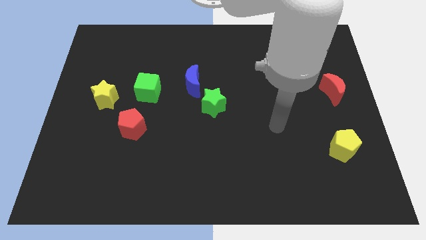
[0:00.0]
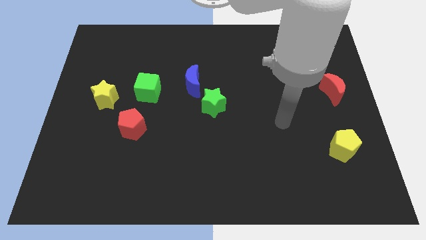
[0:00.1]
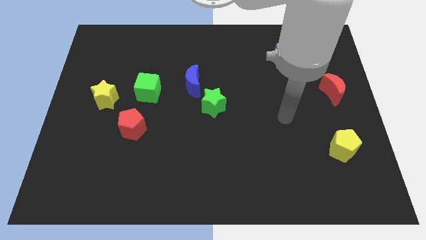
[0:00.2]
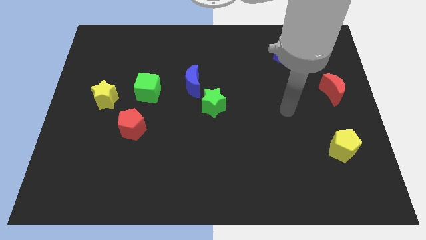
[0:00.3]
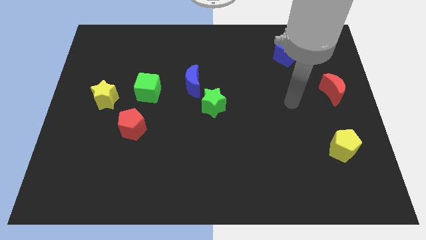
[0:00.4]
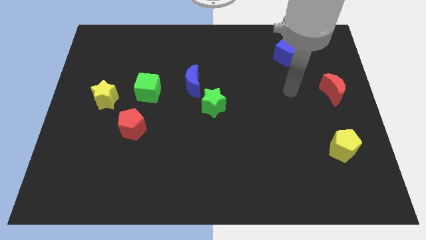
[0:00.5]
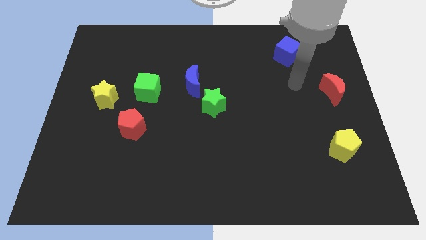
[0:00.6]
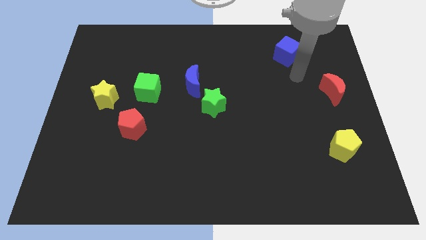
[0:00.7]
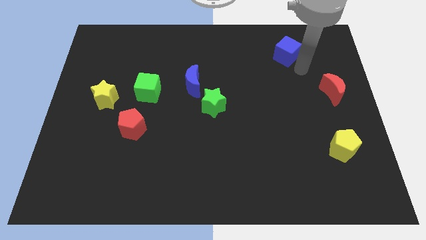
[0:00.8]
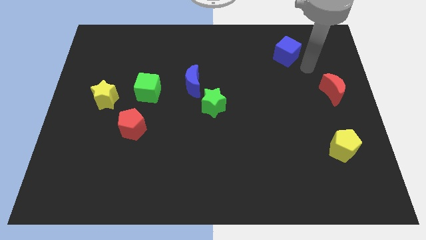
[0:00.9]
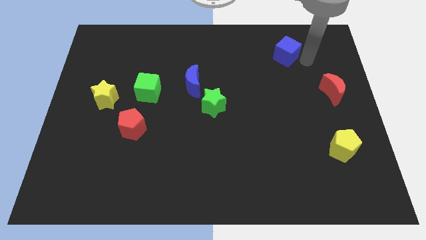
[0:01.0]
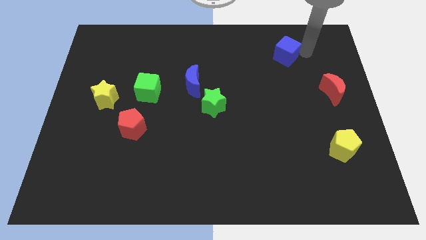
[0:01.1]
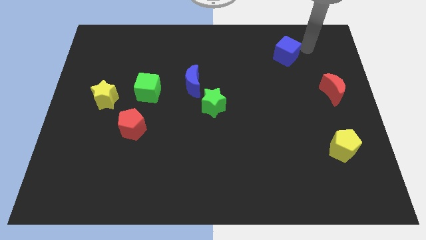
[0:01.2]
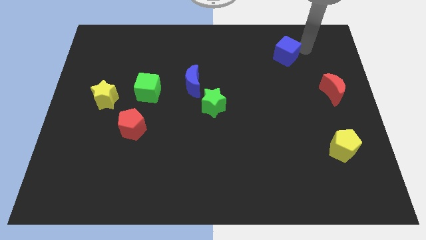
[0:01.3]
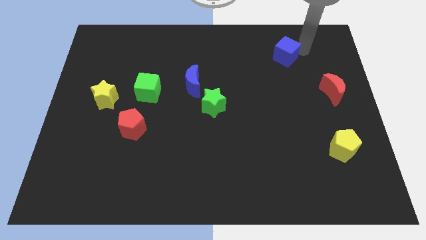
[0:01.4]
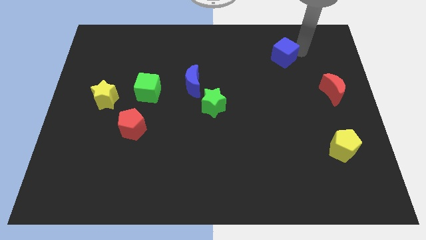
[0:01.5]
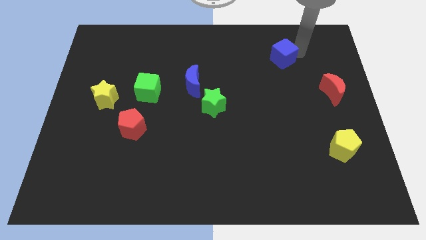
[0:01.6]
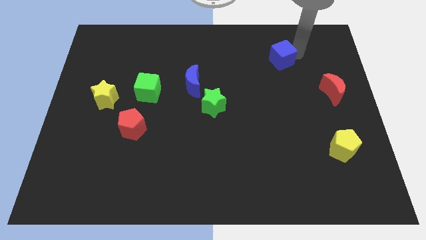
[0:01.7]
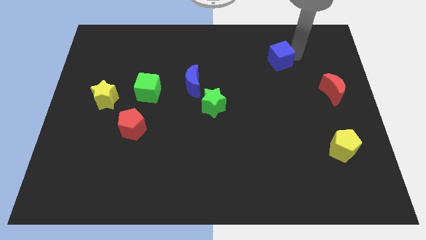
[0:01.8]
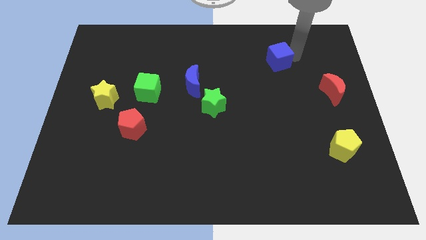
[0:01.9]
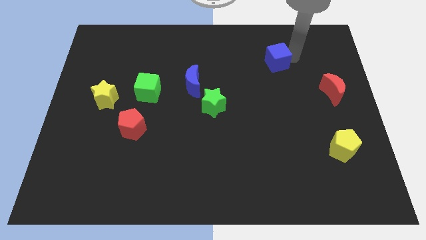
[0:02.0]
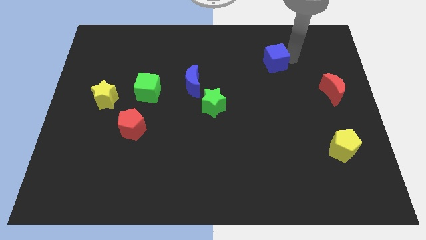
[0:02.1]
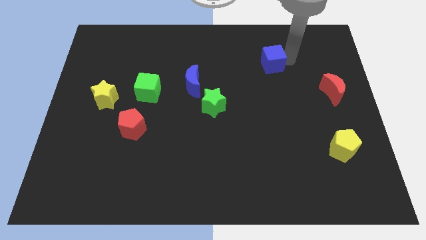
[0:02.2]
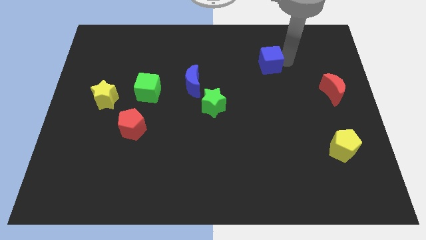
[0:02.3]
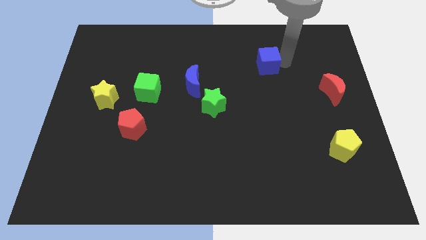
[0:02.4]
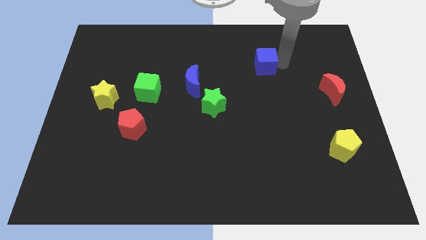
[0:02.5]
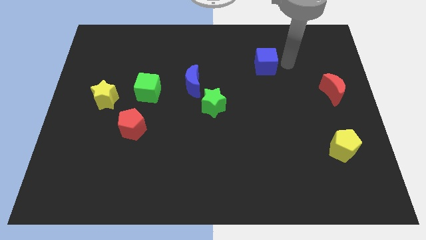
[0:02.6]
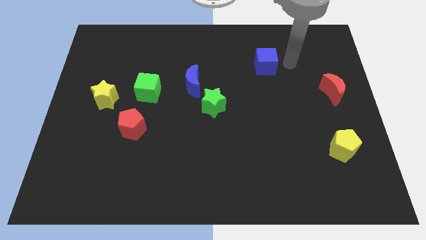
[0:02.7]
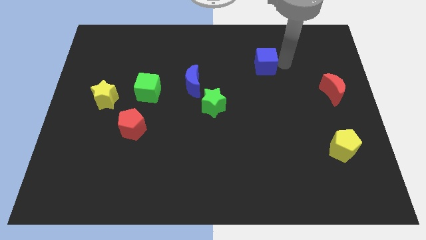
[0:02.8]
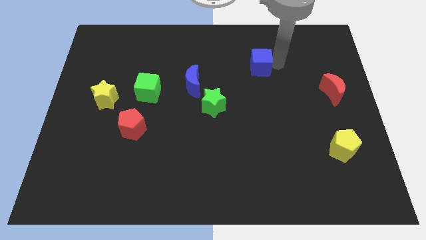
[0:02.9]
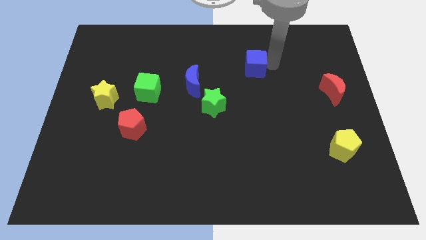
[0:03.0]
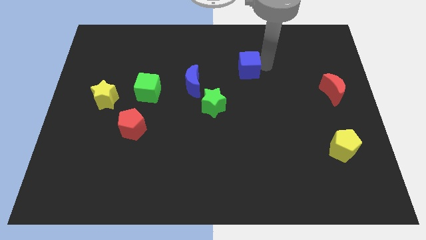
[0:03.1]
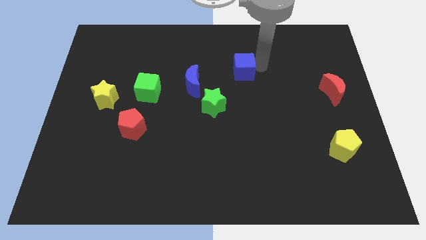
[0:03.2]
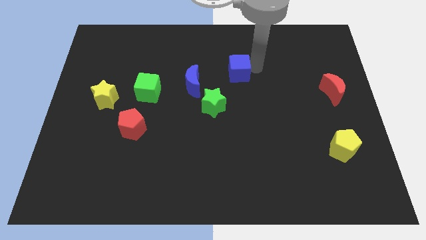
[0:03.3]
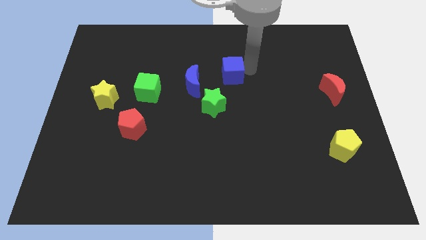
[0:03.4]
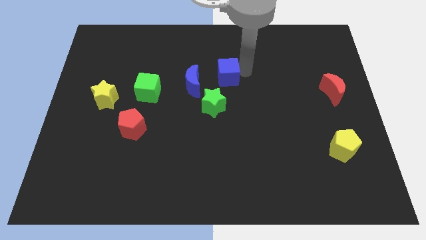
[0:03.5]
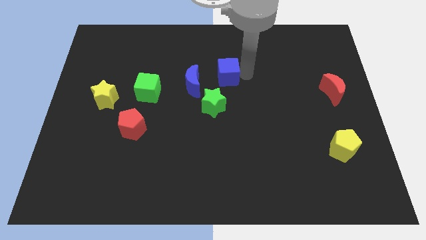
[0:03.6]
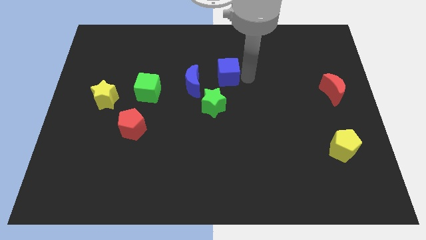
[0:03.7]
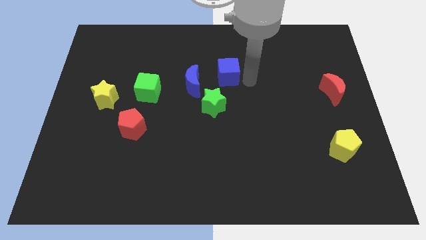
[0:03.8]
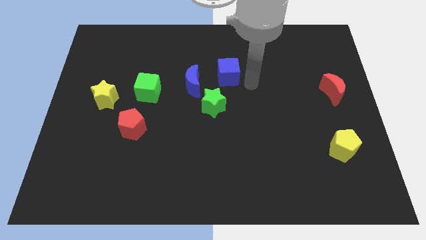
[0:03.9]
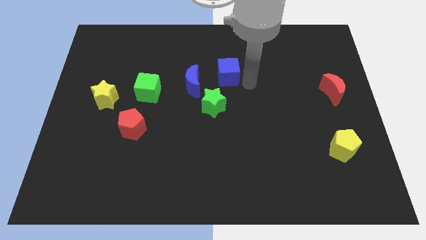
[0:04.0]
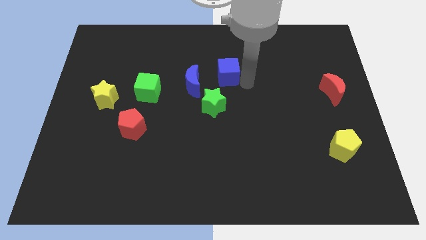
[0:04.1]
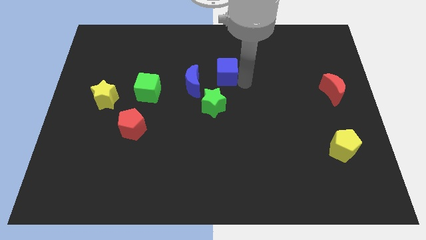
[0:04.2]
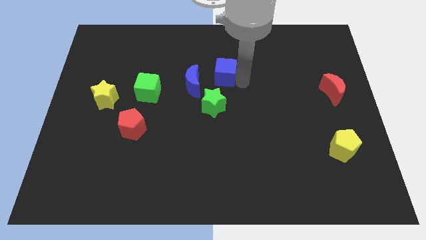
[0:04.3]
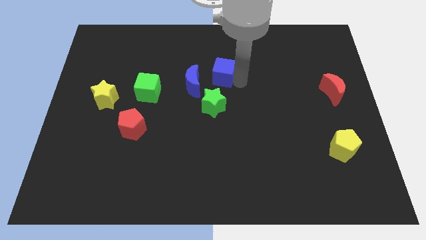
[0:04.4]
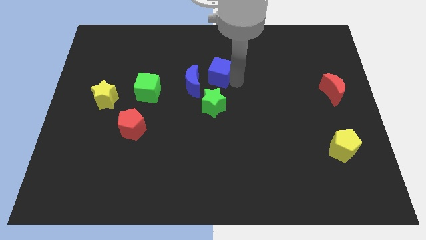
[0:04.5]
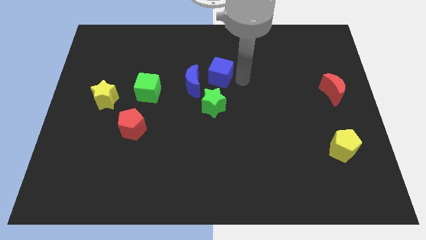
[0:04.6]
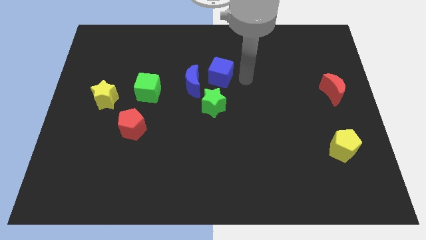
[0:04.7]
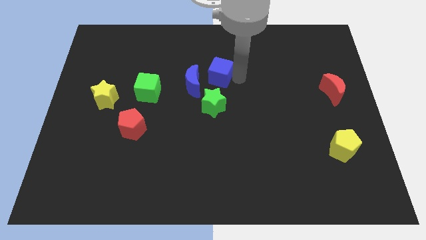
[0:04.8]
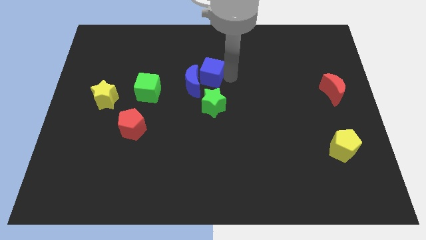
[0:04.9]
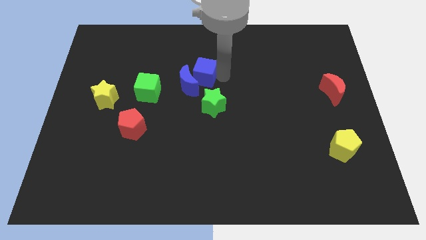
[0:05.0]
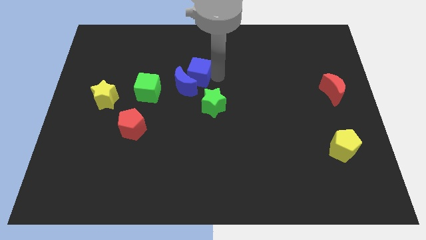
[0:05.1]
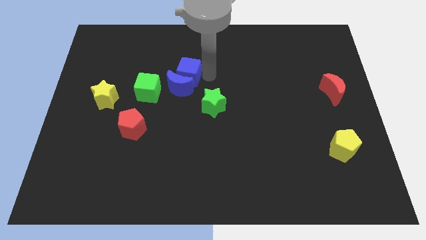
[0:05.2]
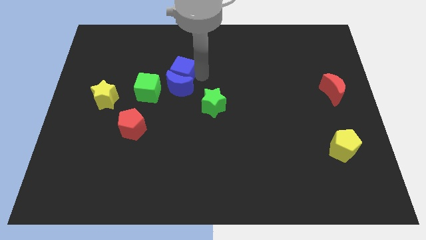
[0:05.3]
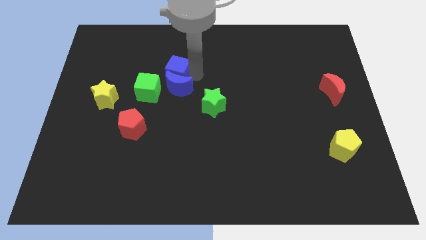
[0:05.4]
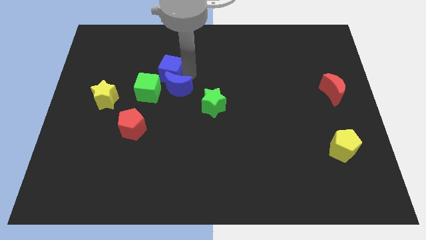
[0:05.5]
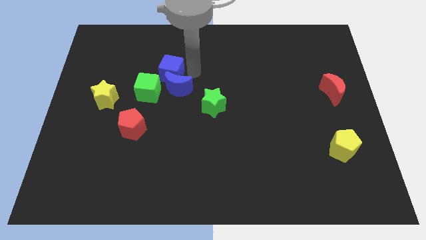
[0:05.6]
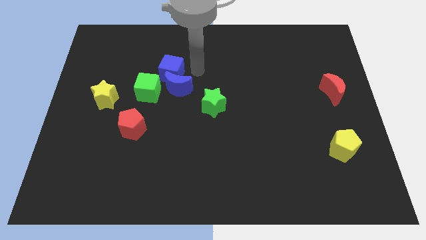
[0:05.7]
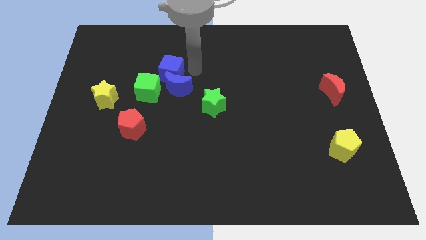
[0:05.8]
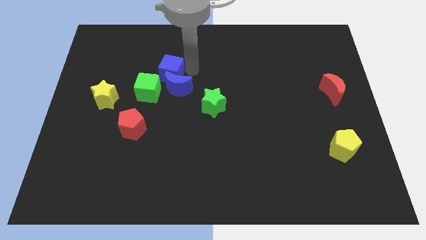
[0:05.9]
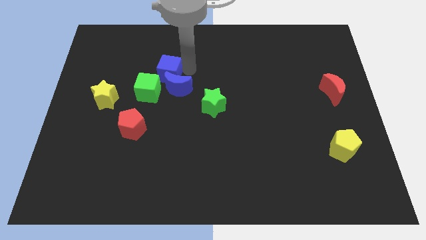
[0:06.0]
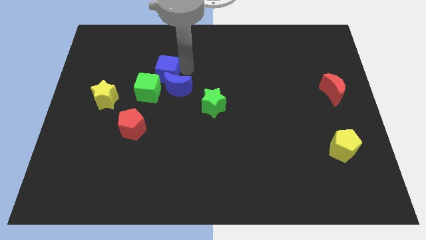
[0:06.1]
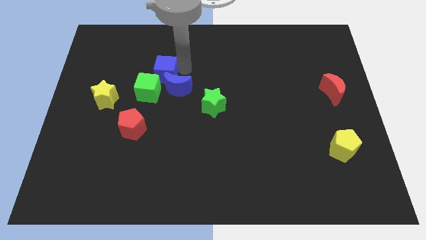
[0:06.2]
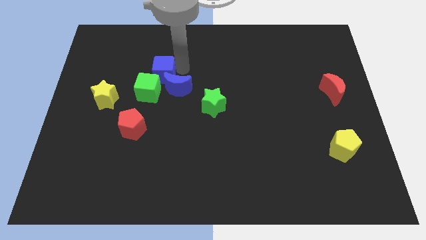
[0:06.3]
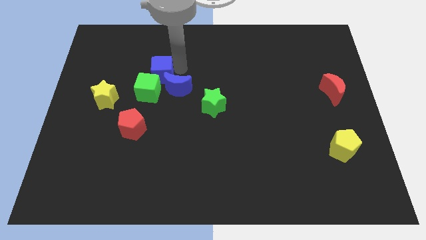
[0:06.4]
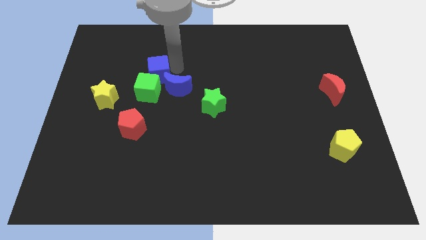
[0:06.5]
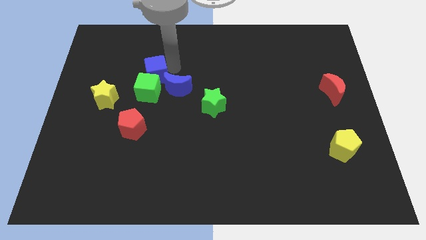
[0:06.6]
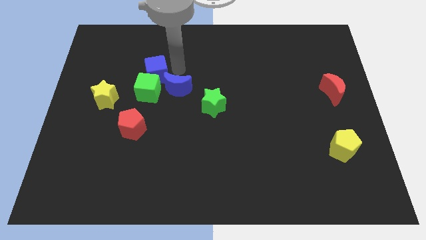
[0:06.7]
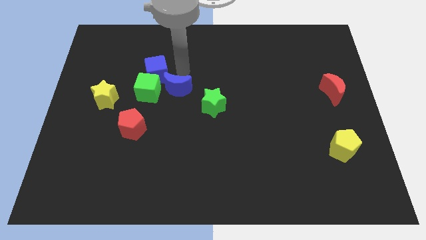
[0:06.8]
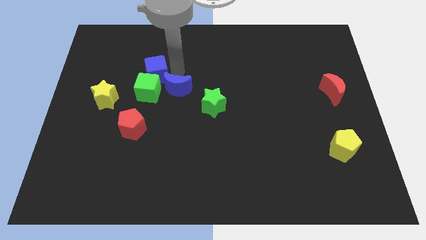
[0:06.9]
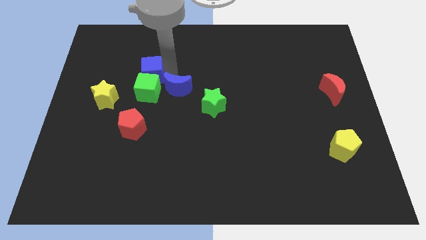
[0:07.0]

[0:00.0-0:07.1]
slide the blue cube to the top left of the green cube
